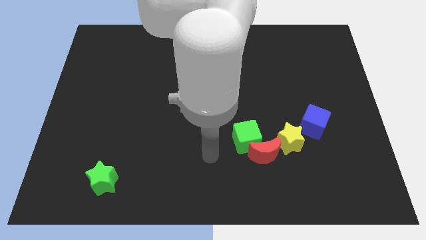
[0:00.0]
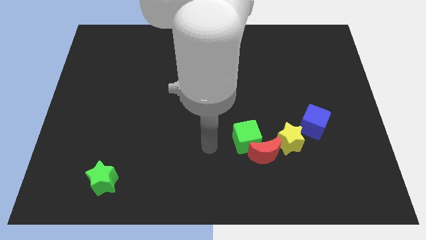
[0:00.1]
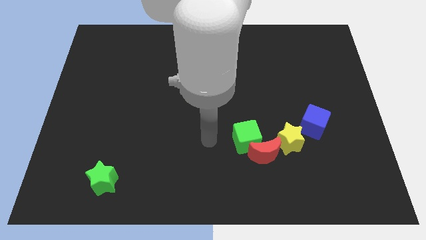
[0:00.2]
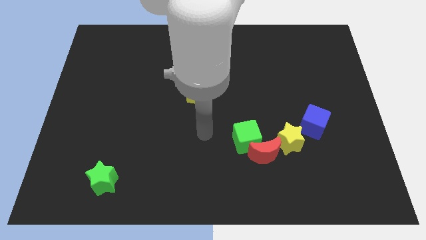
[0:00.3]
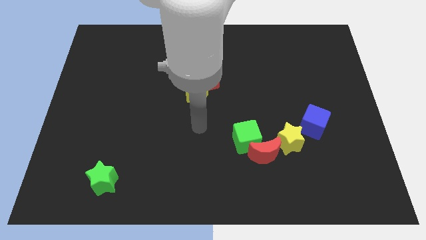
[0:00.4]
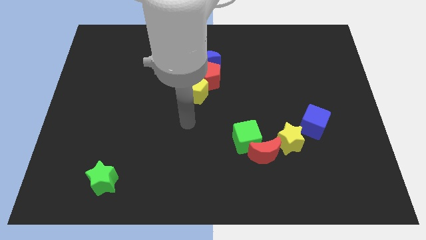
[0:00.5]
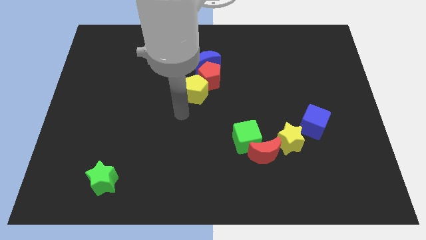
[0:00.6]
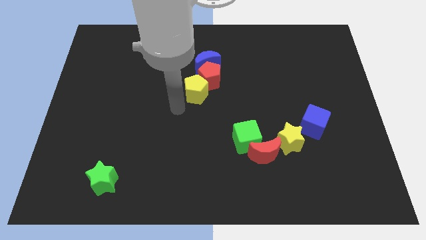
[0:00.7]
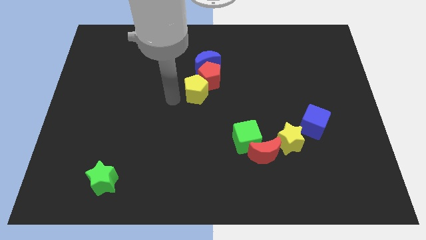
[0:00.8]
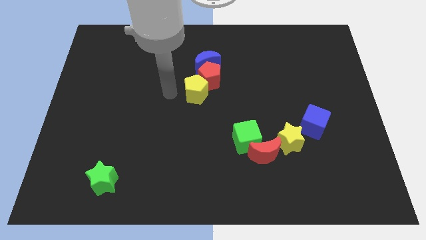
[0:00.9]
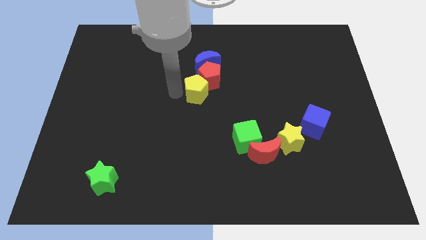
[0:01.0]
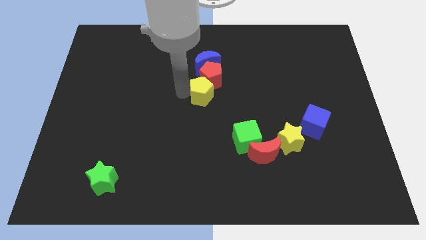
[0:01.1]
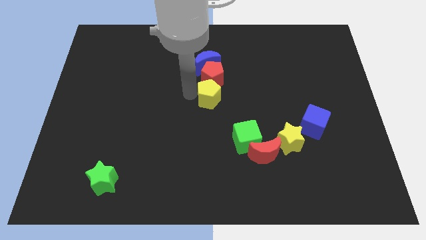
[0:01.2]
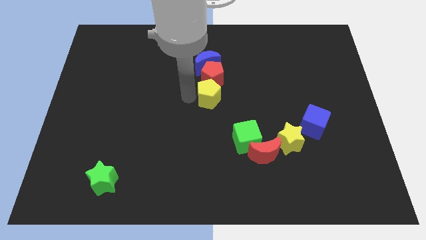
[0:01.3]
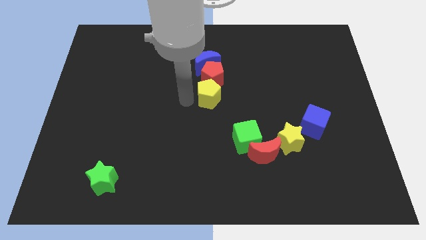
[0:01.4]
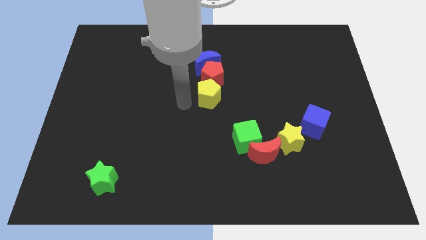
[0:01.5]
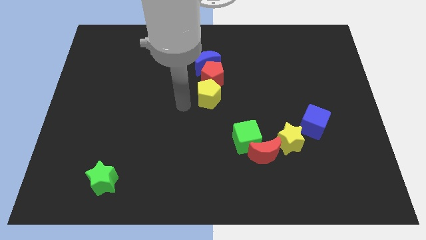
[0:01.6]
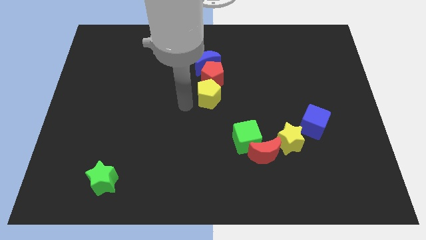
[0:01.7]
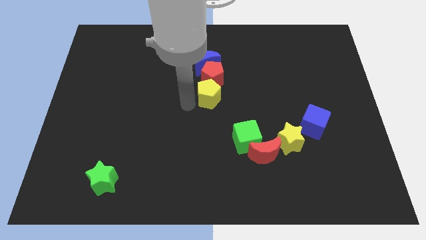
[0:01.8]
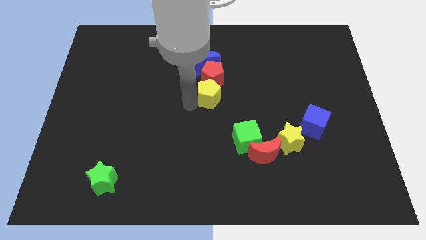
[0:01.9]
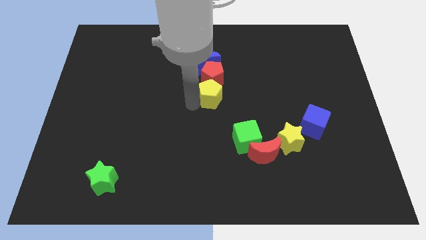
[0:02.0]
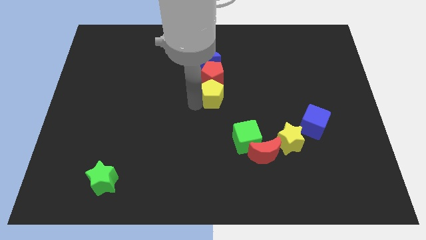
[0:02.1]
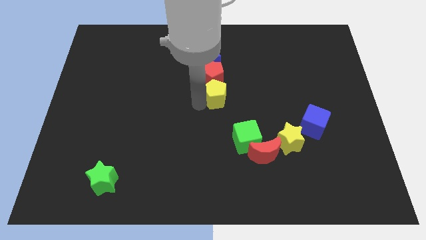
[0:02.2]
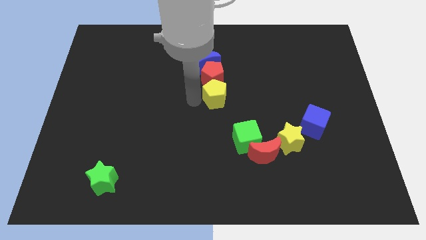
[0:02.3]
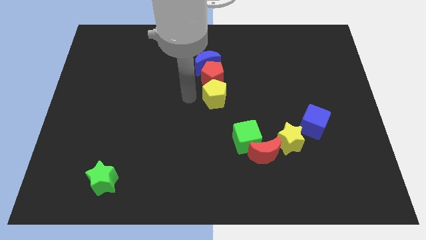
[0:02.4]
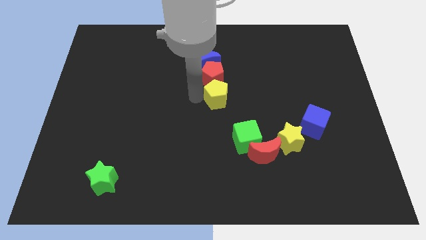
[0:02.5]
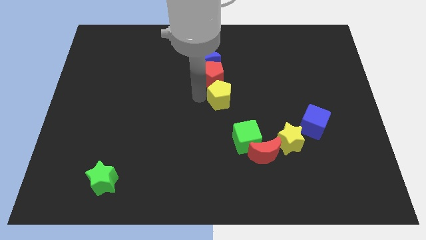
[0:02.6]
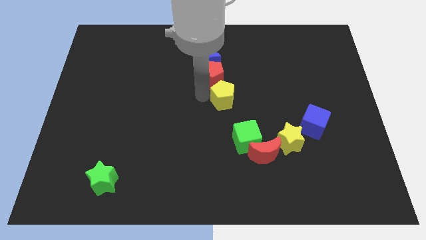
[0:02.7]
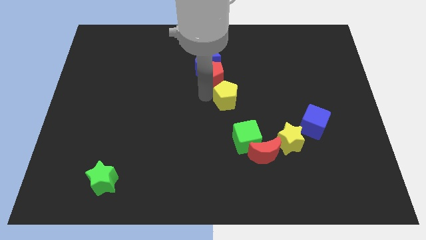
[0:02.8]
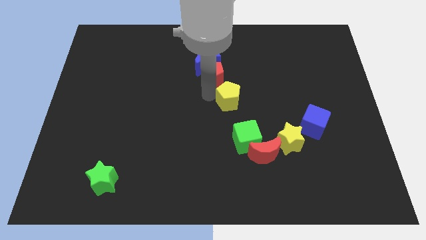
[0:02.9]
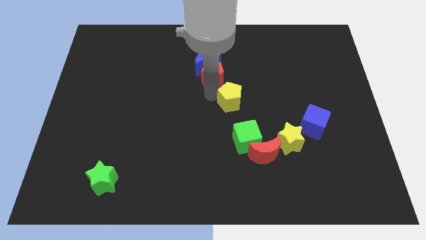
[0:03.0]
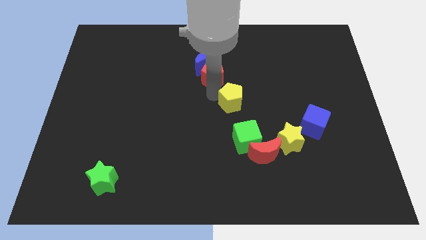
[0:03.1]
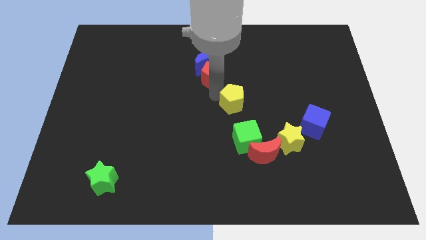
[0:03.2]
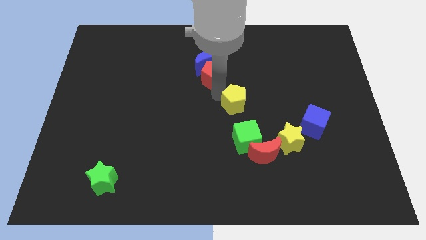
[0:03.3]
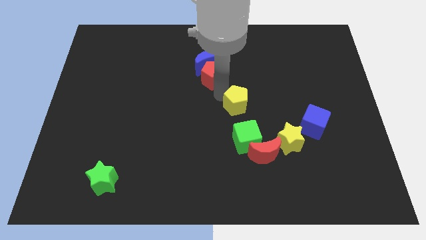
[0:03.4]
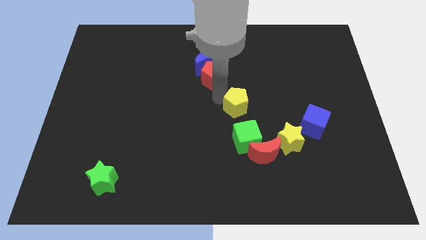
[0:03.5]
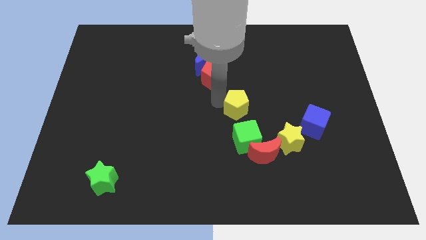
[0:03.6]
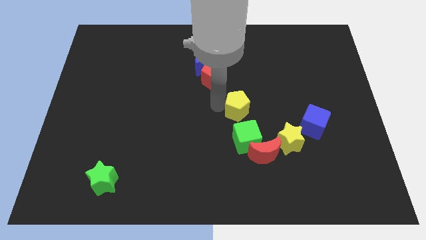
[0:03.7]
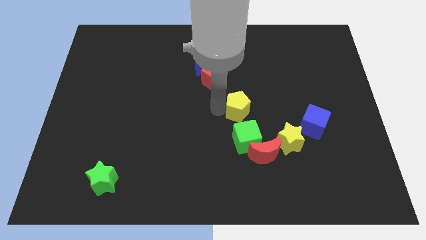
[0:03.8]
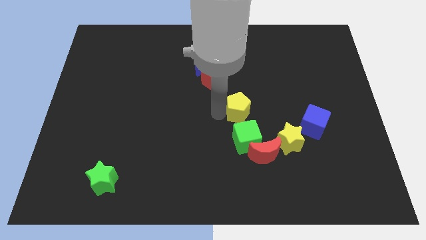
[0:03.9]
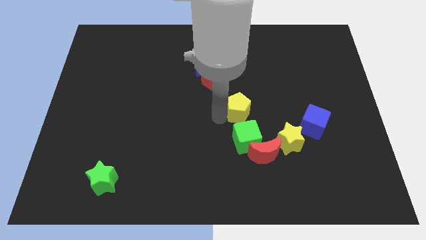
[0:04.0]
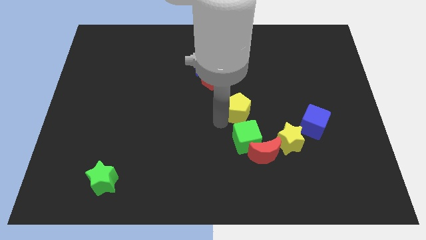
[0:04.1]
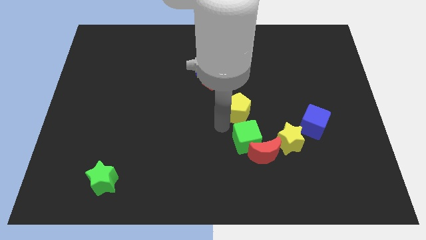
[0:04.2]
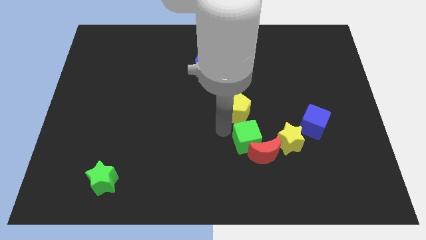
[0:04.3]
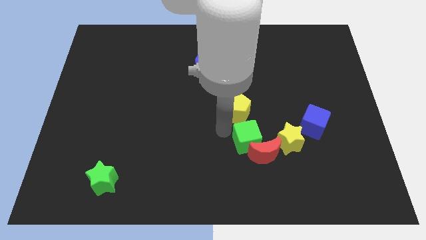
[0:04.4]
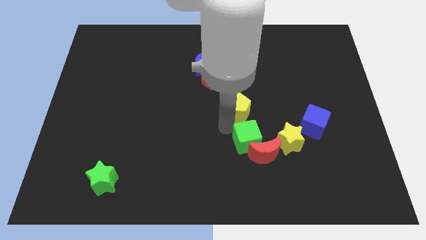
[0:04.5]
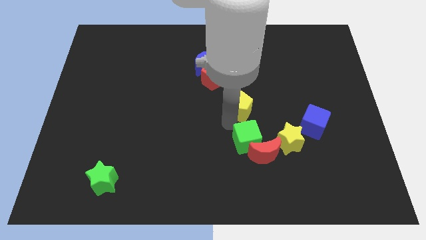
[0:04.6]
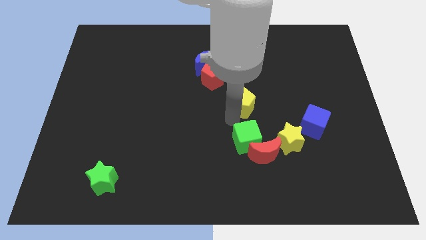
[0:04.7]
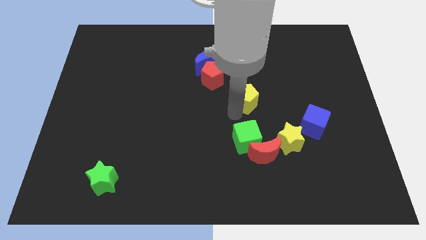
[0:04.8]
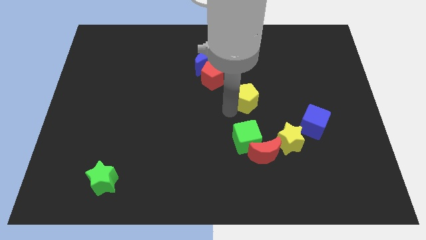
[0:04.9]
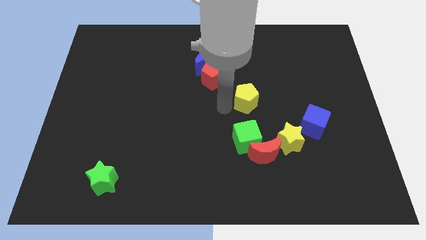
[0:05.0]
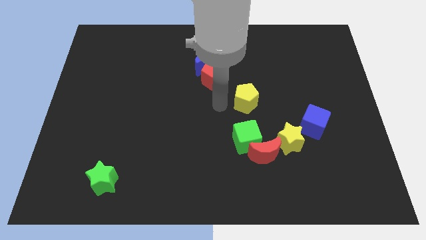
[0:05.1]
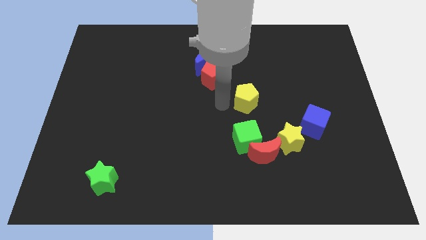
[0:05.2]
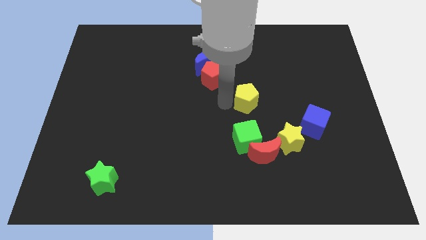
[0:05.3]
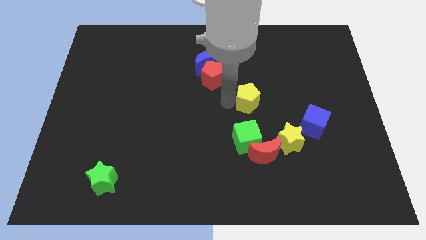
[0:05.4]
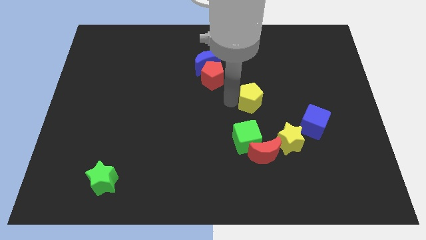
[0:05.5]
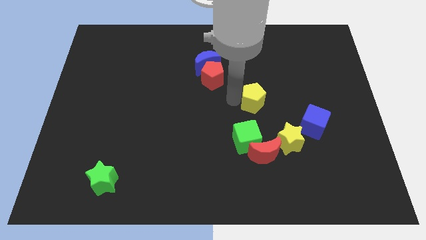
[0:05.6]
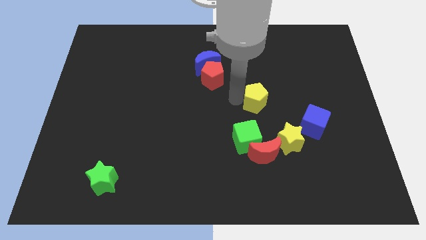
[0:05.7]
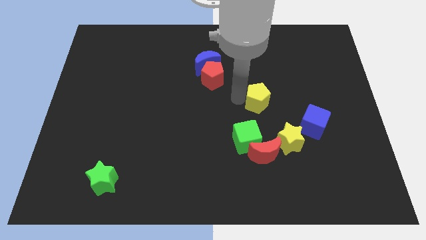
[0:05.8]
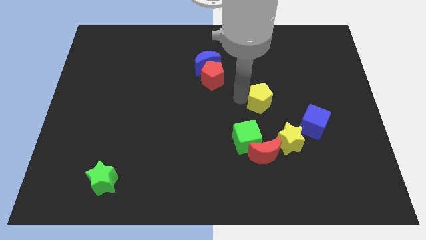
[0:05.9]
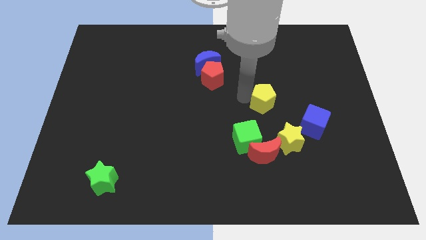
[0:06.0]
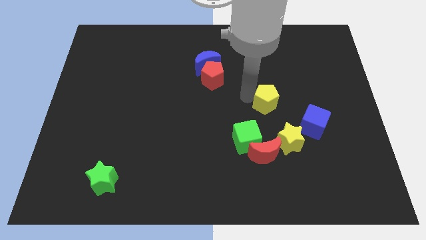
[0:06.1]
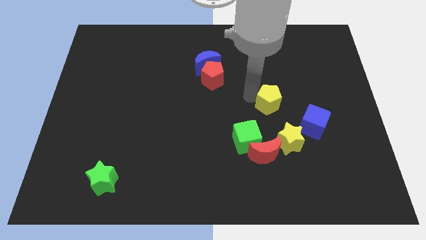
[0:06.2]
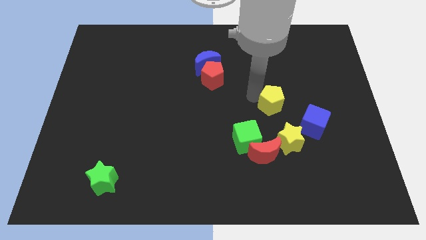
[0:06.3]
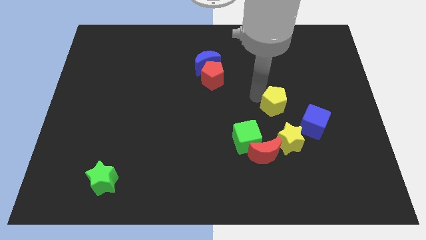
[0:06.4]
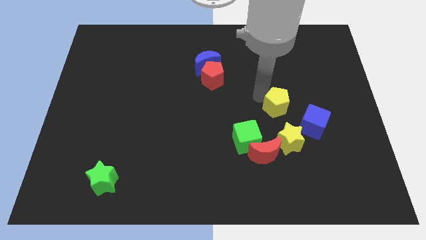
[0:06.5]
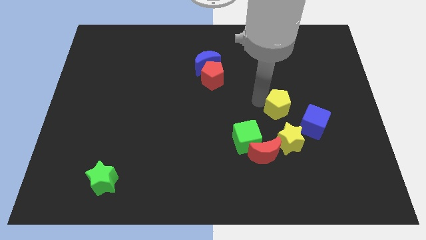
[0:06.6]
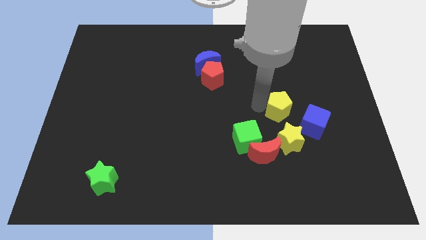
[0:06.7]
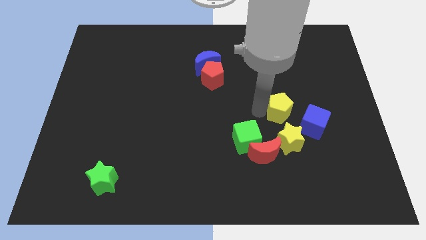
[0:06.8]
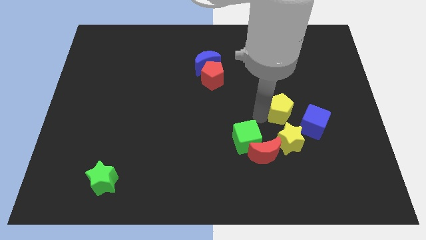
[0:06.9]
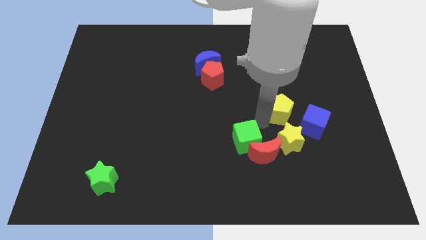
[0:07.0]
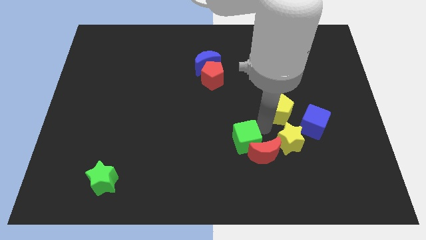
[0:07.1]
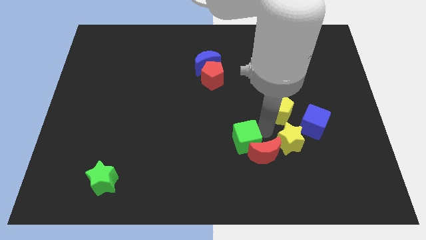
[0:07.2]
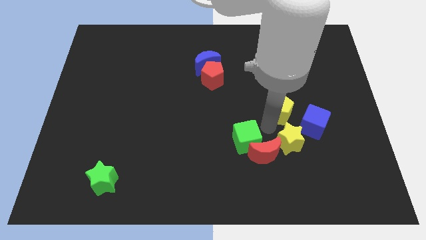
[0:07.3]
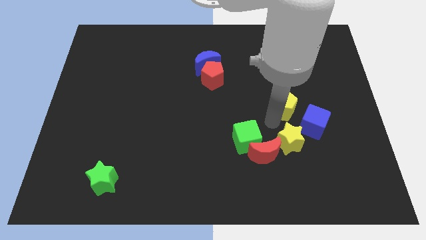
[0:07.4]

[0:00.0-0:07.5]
push the yellow pentagon to the right

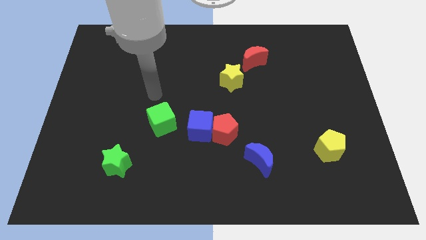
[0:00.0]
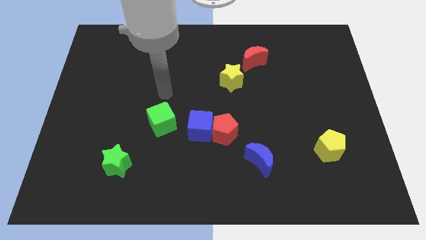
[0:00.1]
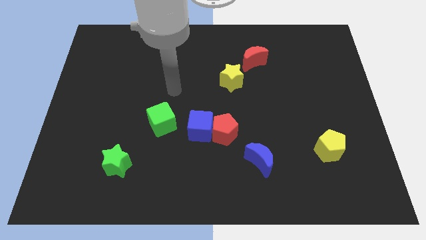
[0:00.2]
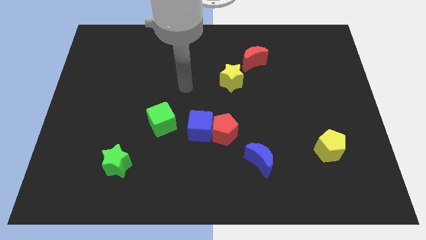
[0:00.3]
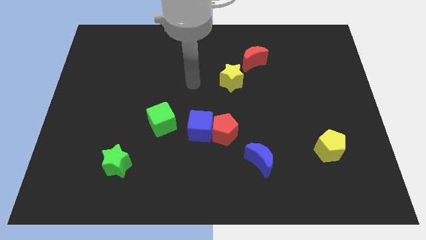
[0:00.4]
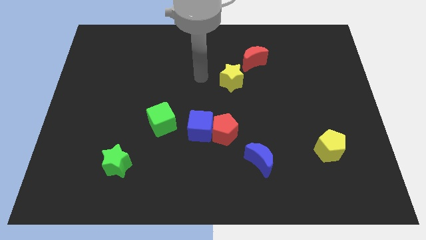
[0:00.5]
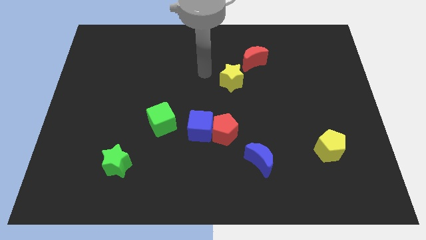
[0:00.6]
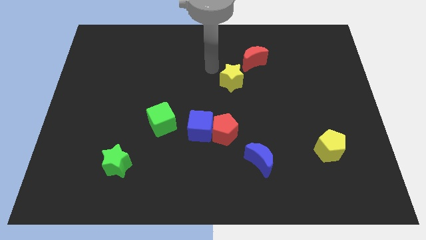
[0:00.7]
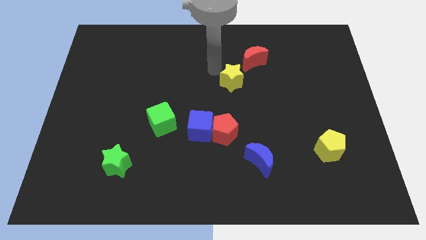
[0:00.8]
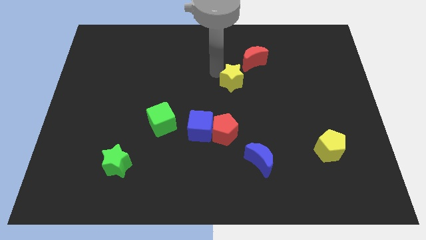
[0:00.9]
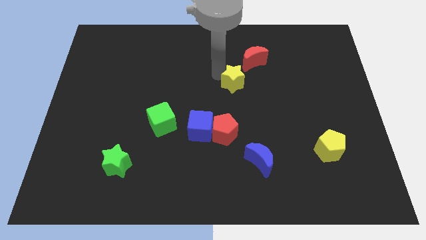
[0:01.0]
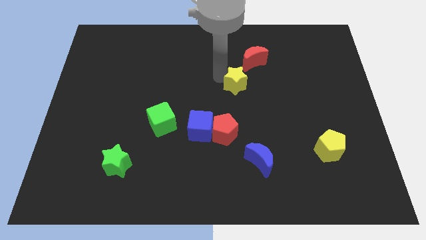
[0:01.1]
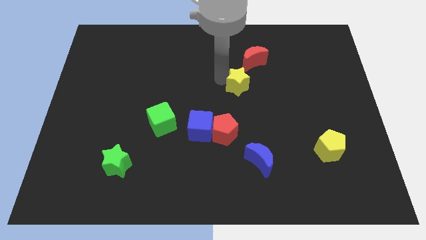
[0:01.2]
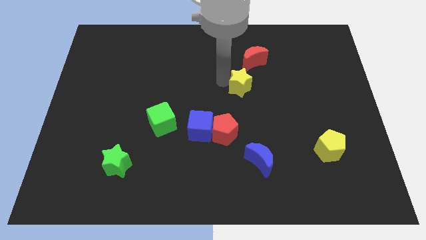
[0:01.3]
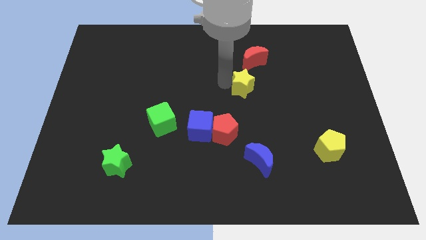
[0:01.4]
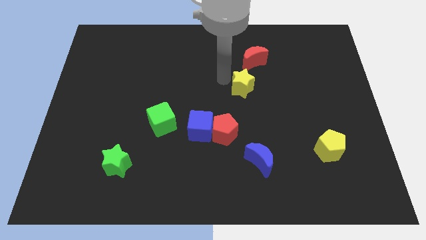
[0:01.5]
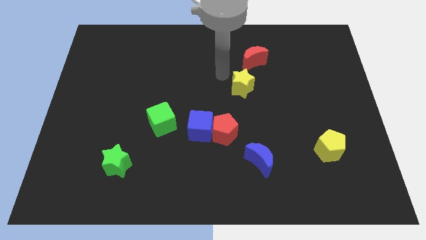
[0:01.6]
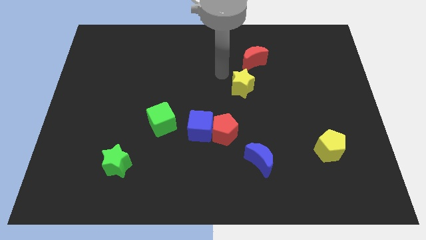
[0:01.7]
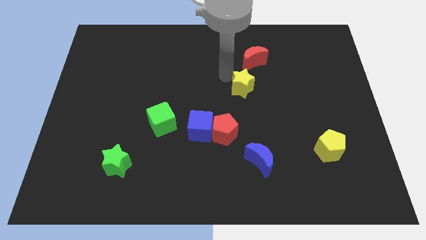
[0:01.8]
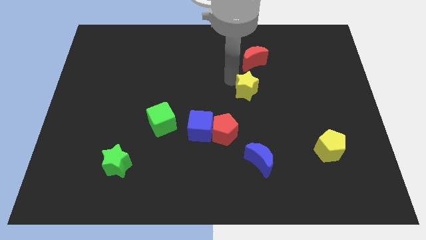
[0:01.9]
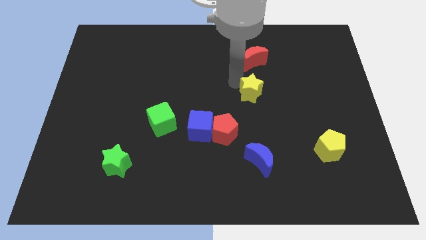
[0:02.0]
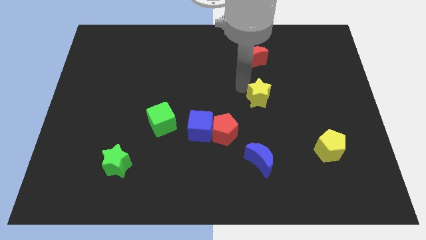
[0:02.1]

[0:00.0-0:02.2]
push the yellow star a little downwards and right
